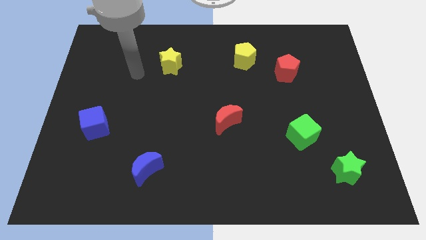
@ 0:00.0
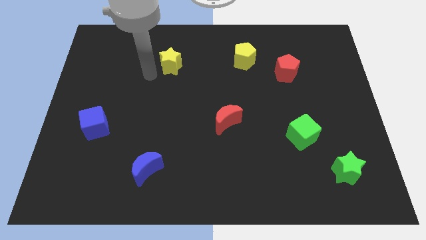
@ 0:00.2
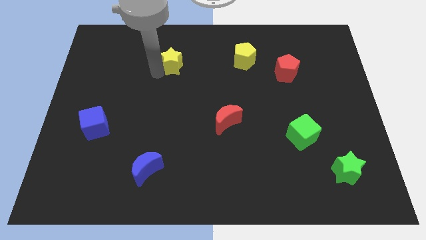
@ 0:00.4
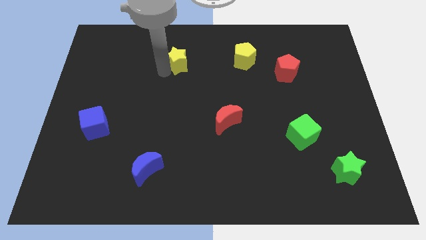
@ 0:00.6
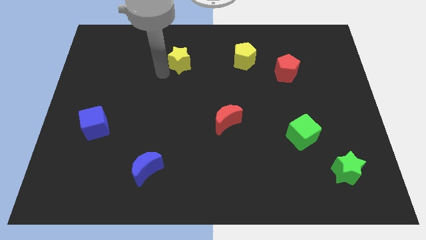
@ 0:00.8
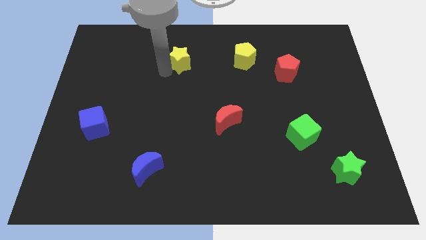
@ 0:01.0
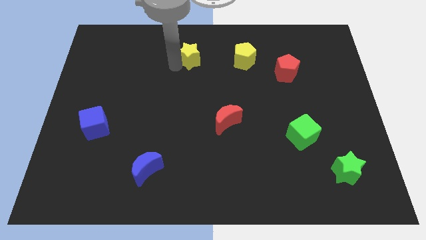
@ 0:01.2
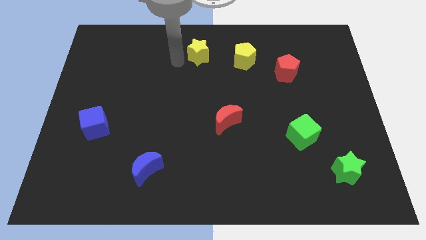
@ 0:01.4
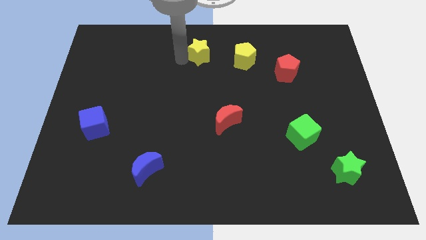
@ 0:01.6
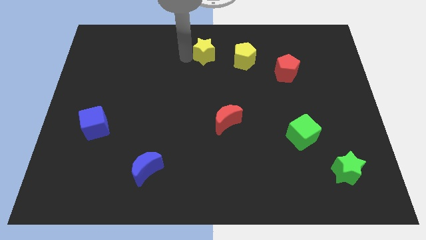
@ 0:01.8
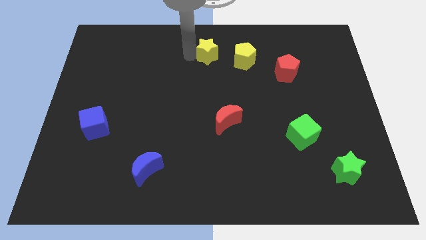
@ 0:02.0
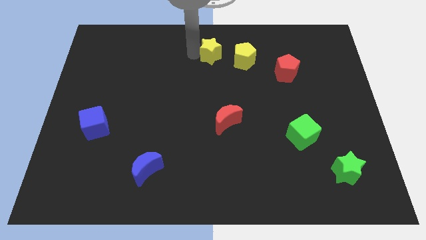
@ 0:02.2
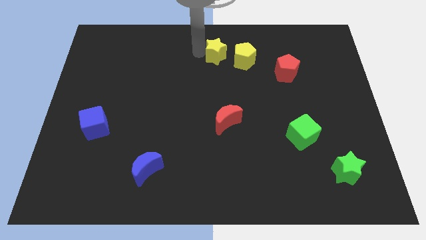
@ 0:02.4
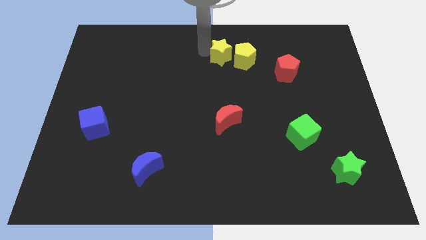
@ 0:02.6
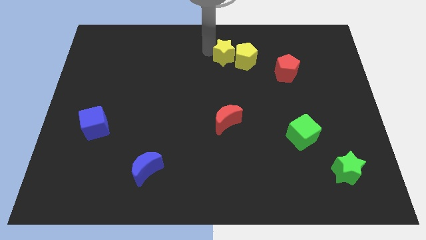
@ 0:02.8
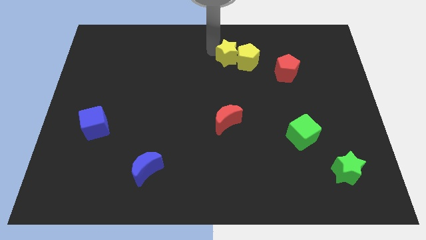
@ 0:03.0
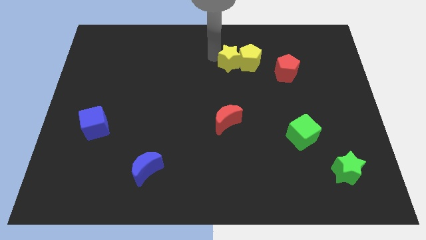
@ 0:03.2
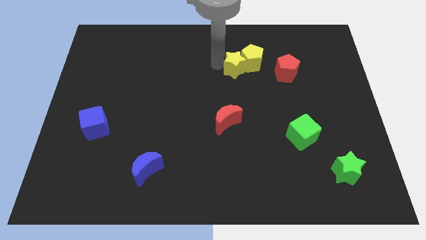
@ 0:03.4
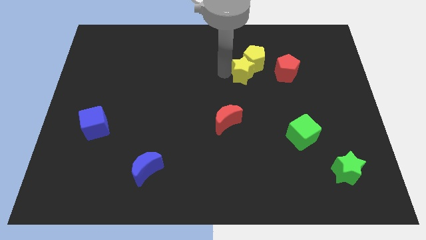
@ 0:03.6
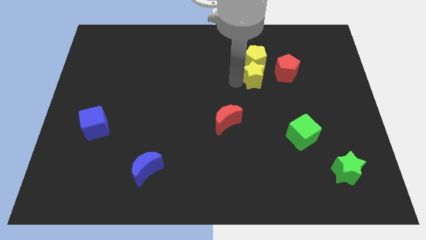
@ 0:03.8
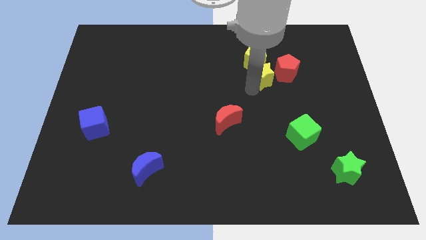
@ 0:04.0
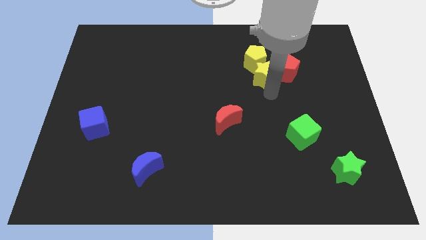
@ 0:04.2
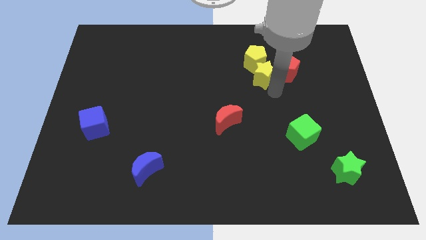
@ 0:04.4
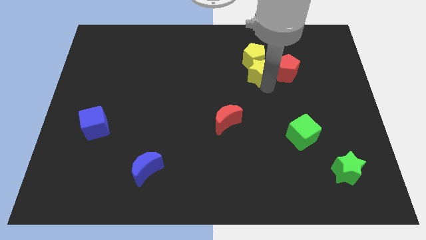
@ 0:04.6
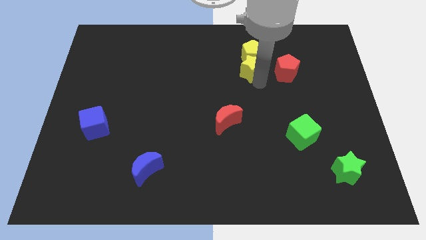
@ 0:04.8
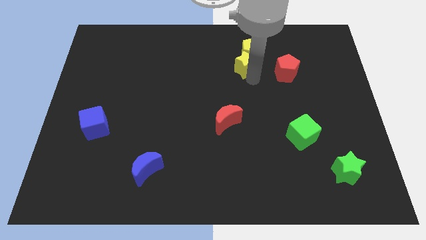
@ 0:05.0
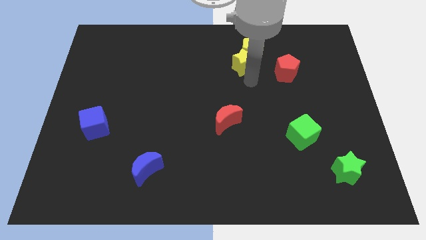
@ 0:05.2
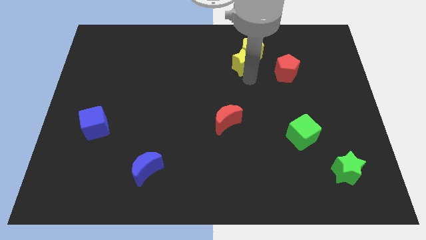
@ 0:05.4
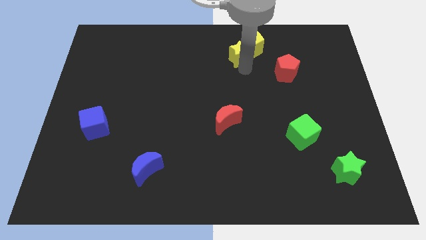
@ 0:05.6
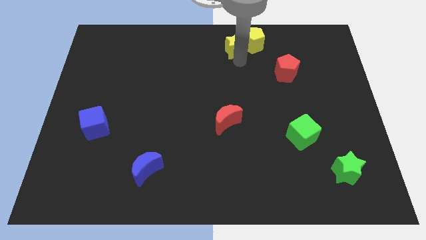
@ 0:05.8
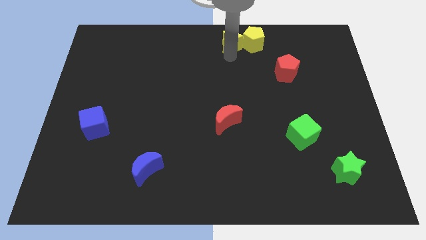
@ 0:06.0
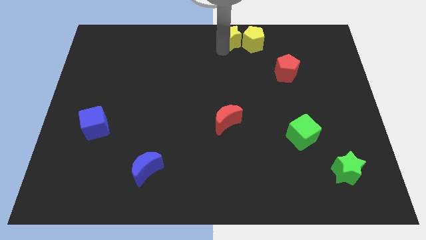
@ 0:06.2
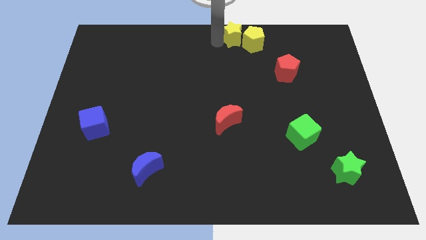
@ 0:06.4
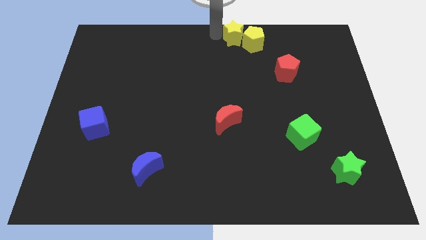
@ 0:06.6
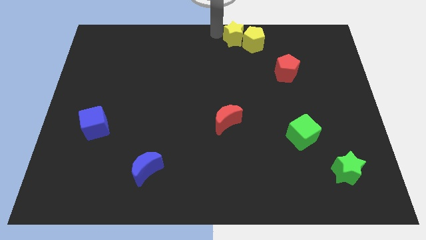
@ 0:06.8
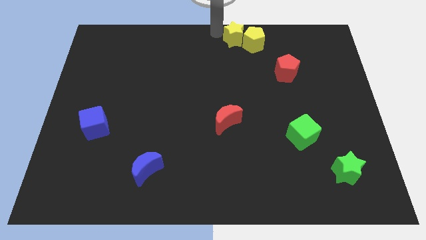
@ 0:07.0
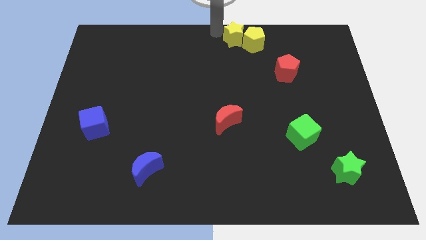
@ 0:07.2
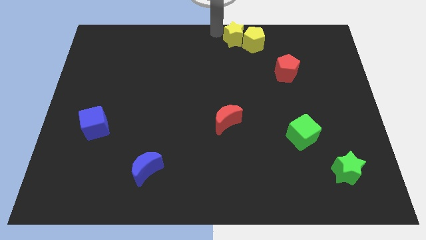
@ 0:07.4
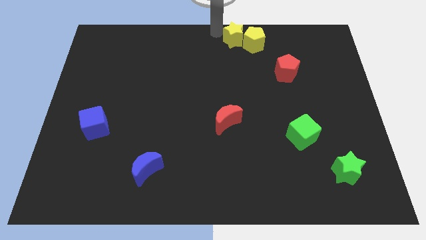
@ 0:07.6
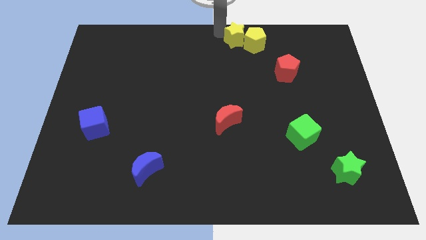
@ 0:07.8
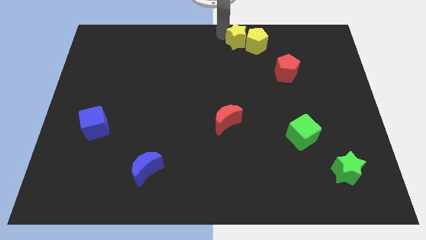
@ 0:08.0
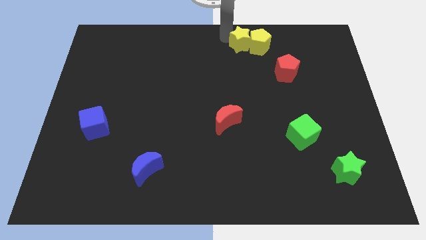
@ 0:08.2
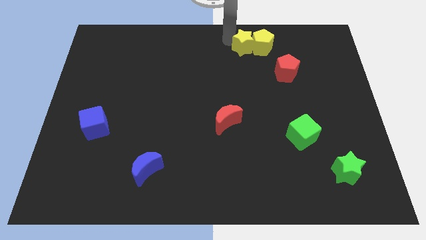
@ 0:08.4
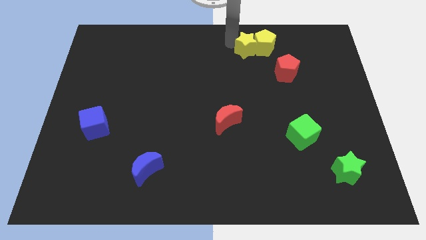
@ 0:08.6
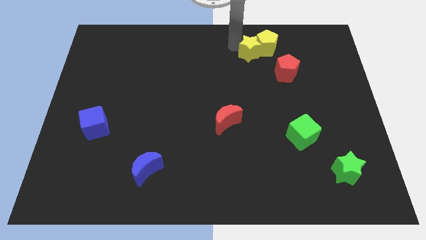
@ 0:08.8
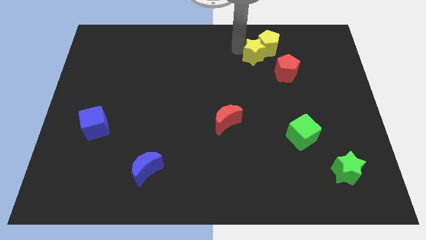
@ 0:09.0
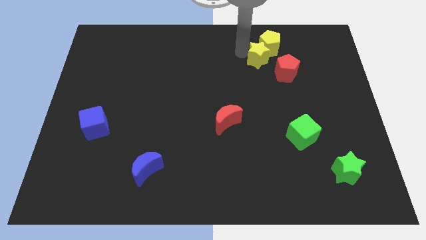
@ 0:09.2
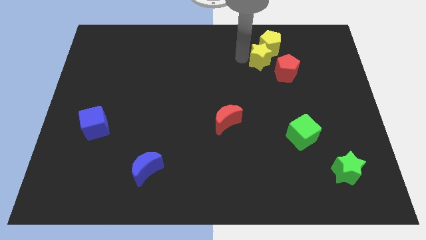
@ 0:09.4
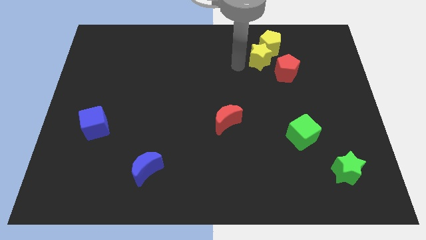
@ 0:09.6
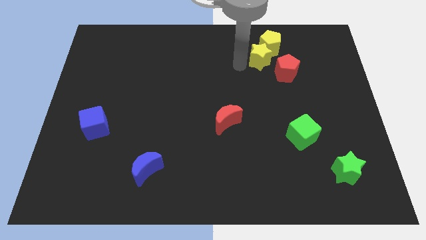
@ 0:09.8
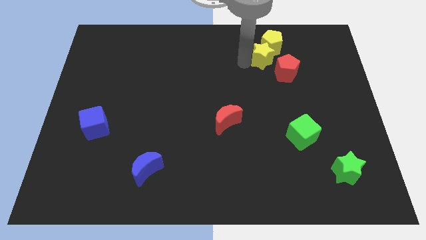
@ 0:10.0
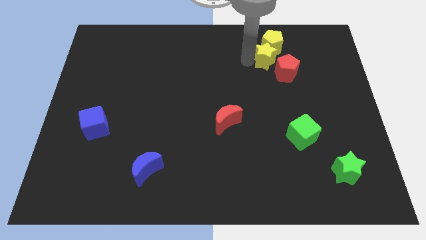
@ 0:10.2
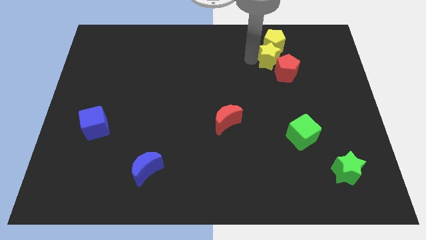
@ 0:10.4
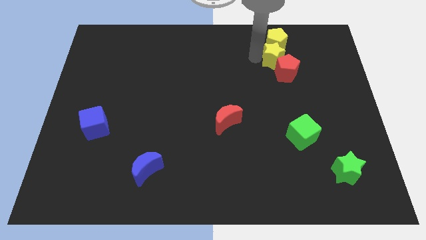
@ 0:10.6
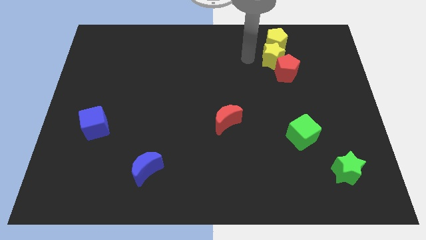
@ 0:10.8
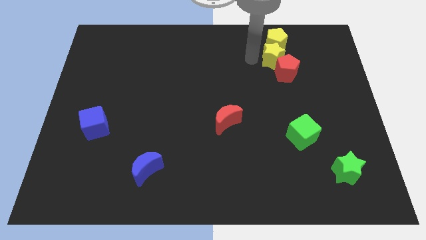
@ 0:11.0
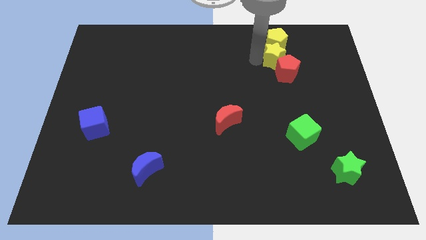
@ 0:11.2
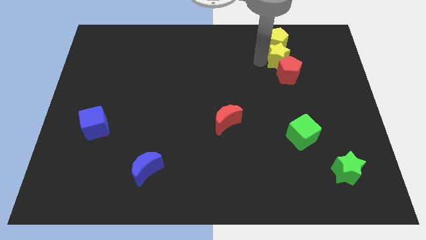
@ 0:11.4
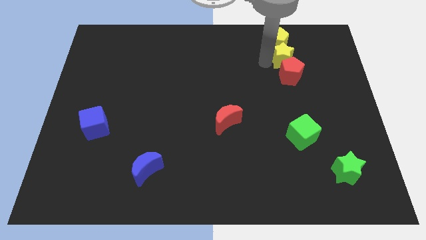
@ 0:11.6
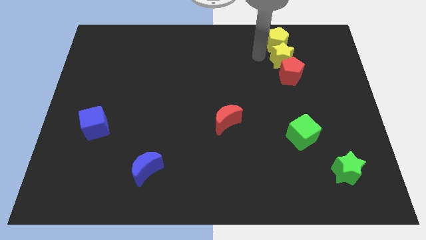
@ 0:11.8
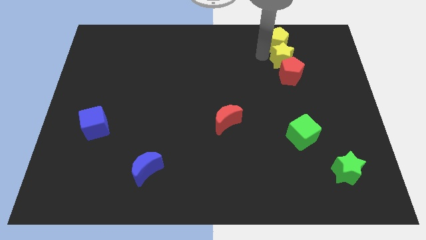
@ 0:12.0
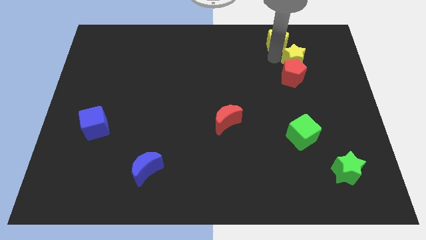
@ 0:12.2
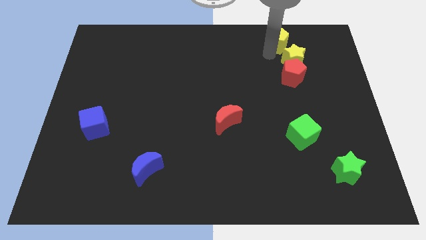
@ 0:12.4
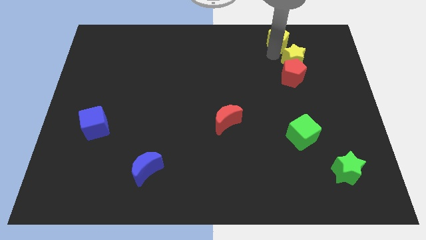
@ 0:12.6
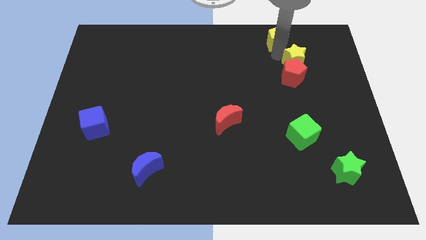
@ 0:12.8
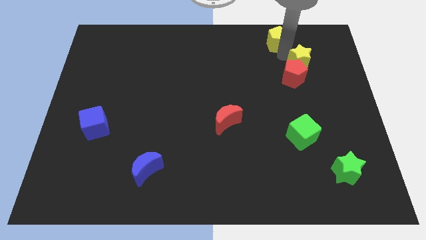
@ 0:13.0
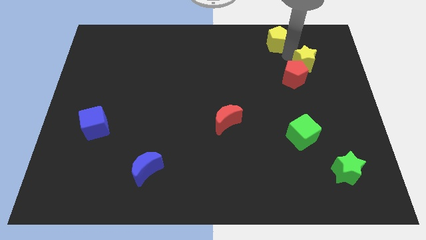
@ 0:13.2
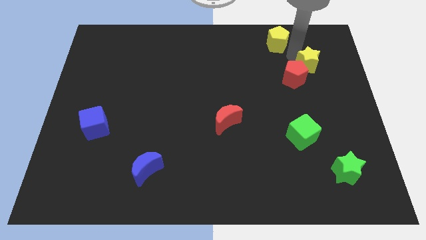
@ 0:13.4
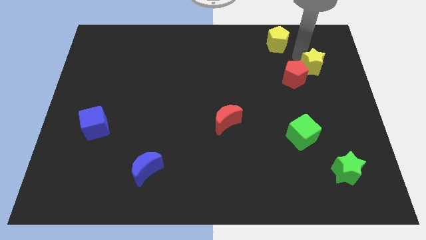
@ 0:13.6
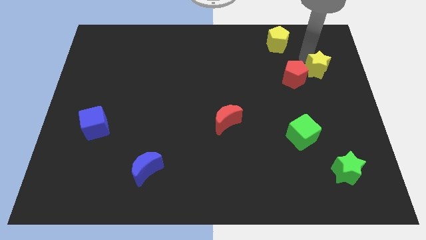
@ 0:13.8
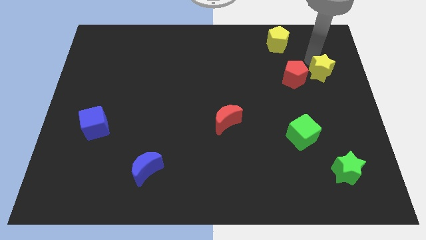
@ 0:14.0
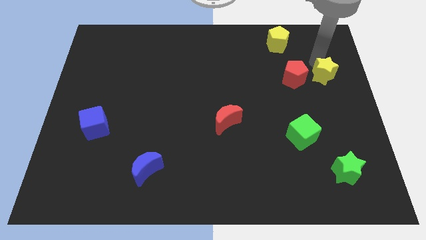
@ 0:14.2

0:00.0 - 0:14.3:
push the yellow star to the center right
